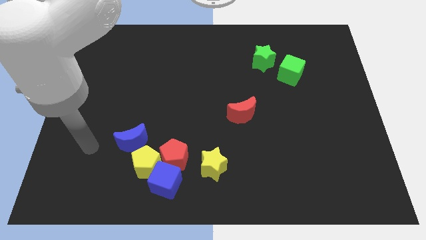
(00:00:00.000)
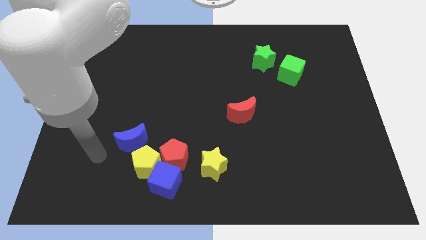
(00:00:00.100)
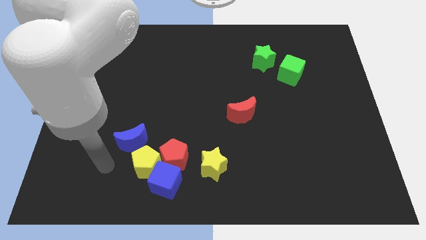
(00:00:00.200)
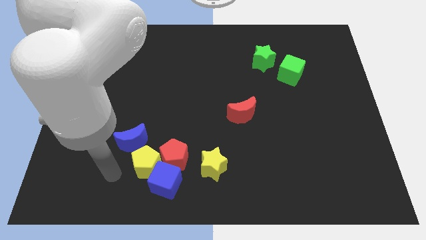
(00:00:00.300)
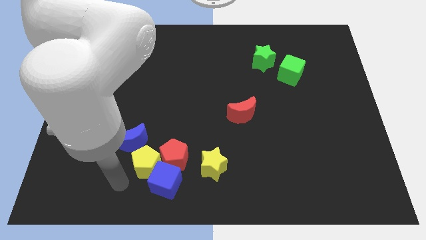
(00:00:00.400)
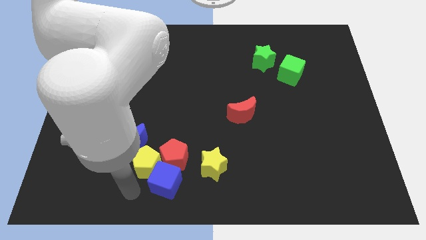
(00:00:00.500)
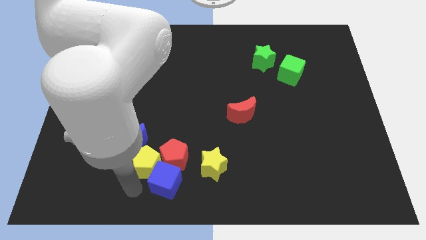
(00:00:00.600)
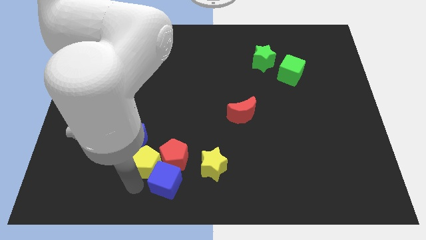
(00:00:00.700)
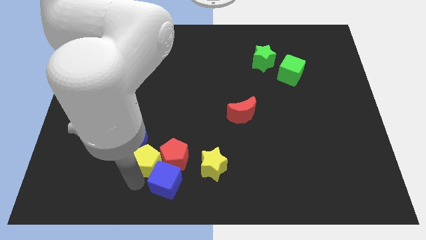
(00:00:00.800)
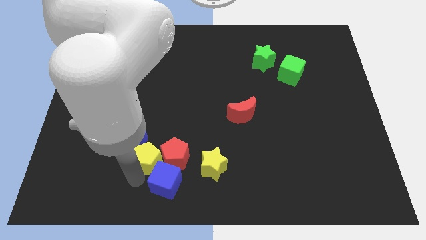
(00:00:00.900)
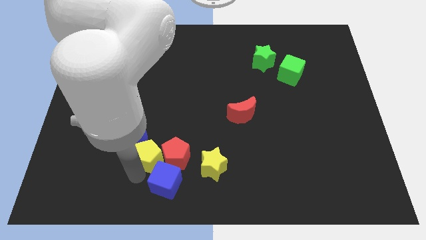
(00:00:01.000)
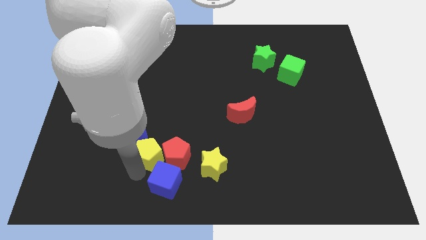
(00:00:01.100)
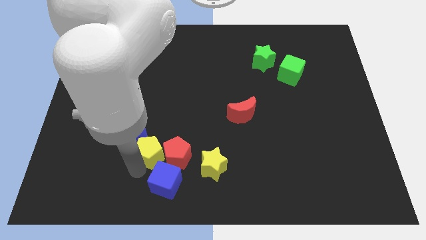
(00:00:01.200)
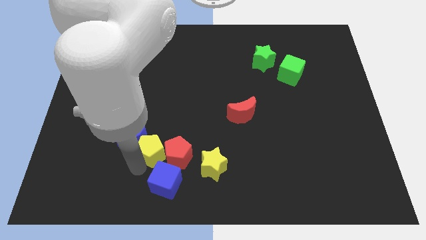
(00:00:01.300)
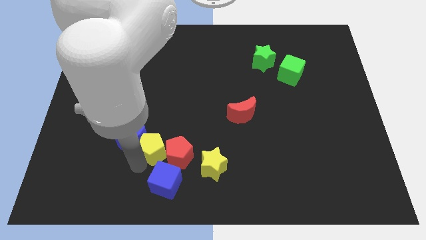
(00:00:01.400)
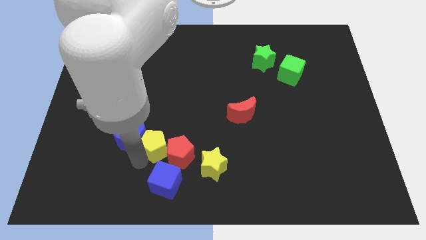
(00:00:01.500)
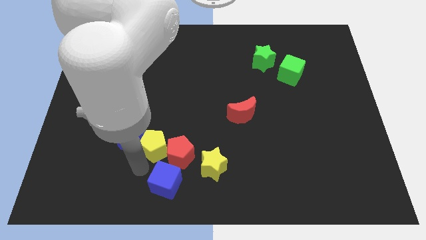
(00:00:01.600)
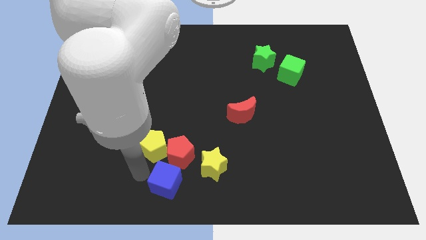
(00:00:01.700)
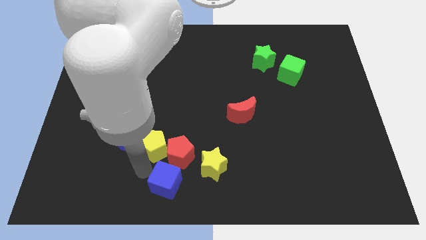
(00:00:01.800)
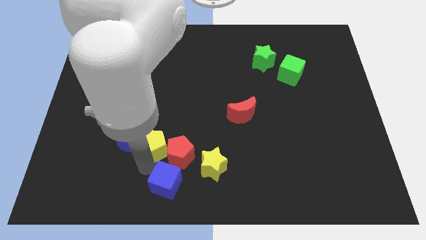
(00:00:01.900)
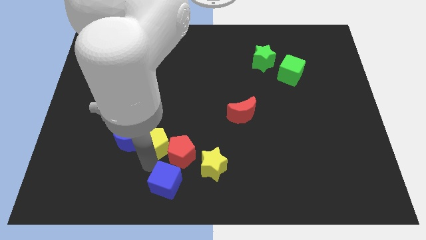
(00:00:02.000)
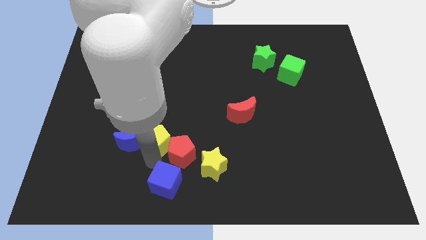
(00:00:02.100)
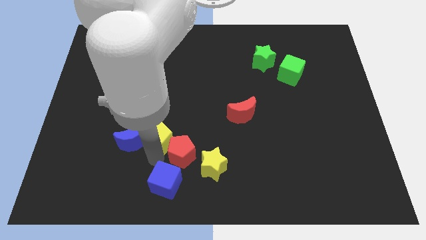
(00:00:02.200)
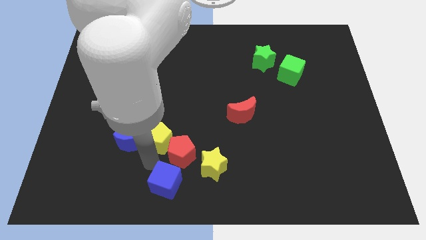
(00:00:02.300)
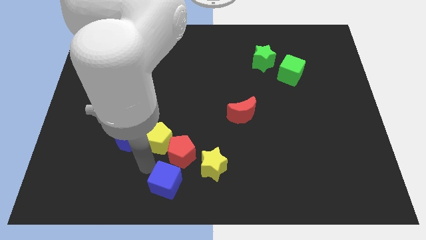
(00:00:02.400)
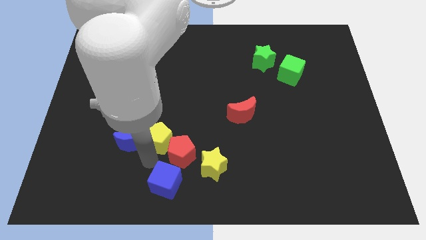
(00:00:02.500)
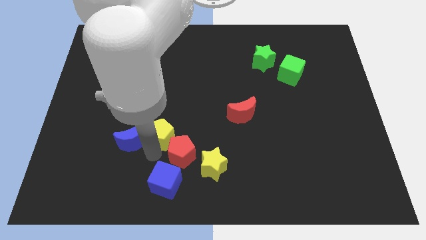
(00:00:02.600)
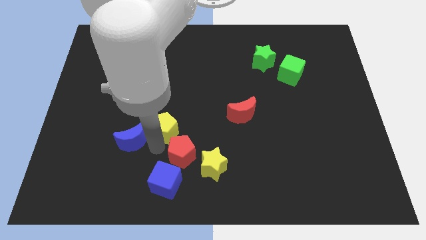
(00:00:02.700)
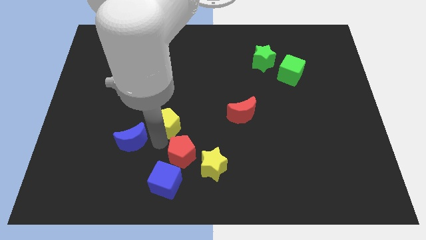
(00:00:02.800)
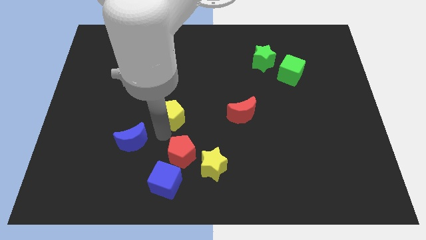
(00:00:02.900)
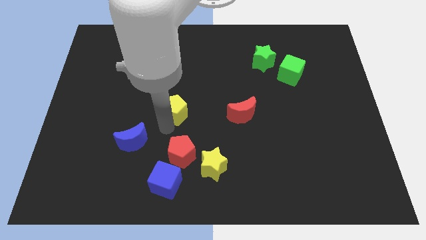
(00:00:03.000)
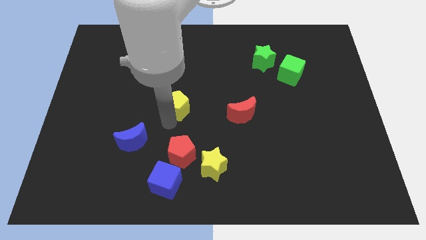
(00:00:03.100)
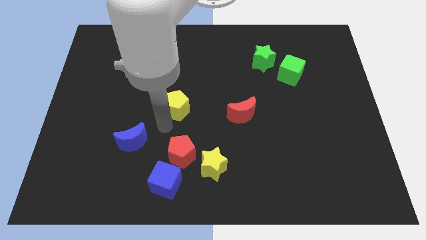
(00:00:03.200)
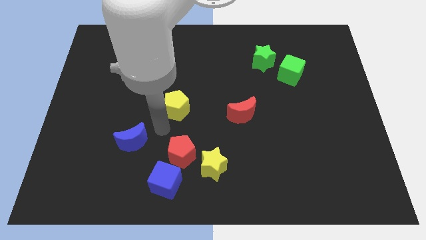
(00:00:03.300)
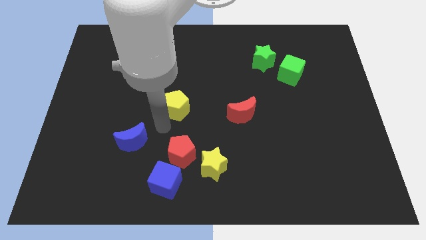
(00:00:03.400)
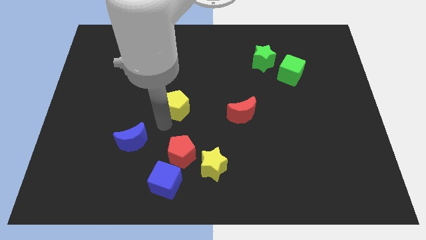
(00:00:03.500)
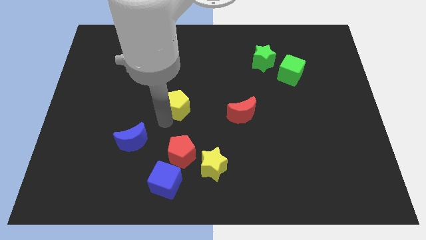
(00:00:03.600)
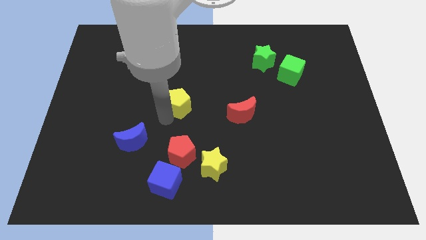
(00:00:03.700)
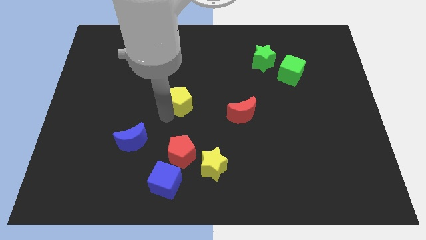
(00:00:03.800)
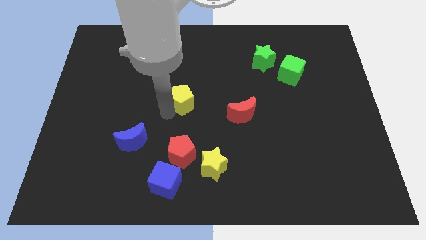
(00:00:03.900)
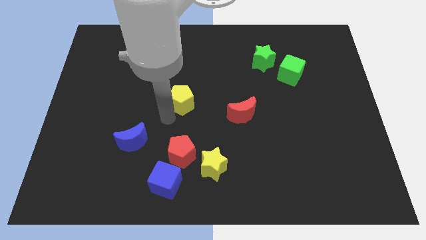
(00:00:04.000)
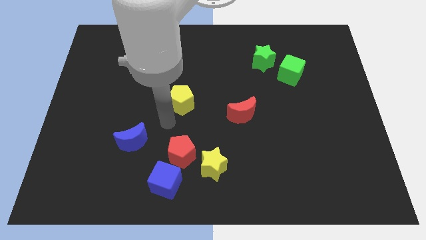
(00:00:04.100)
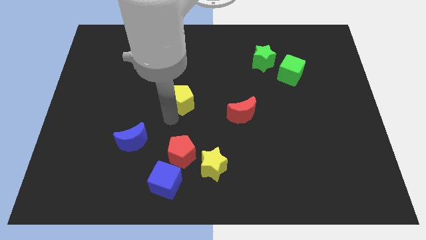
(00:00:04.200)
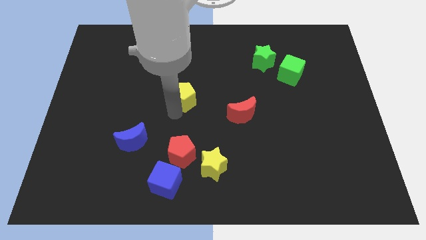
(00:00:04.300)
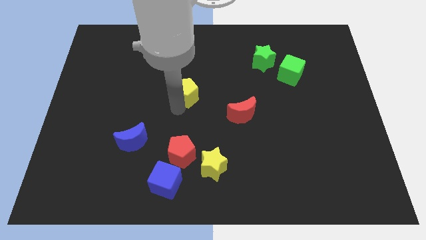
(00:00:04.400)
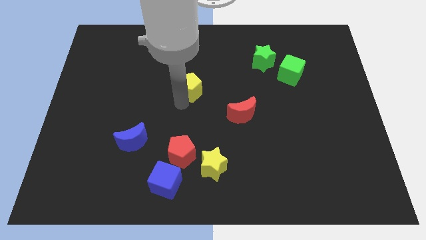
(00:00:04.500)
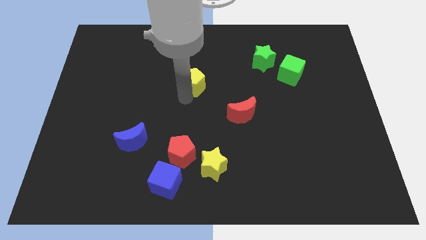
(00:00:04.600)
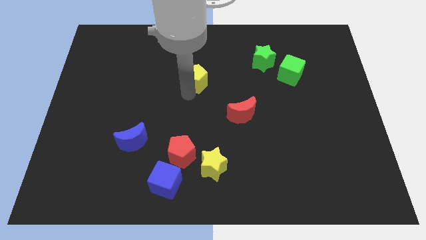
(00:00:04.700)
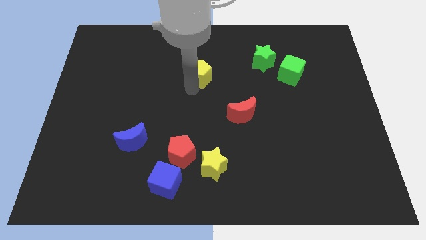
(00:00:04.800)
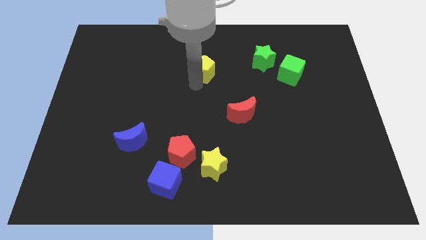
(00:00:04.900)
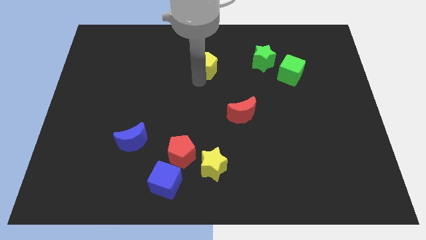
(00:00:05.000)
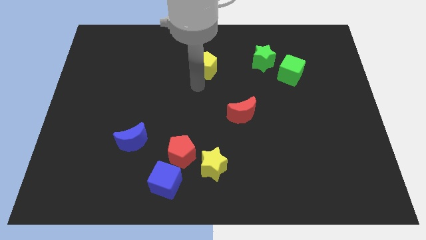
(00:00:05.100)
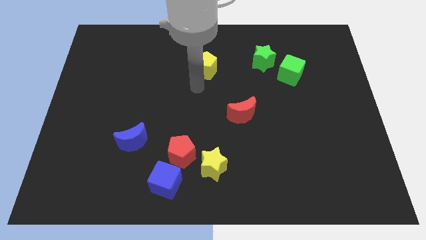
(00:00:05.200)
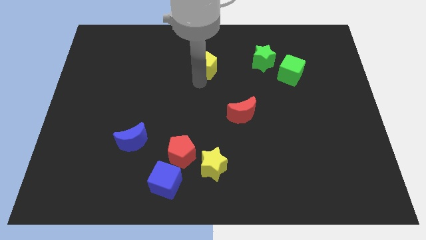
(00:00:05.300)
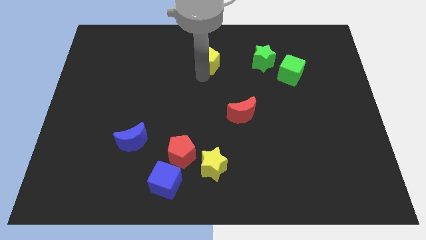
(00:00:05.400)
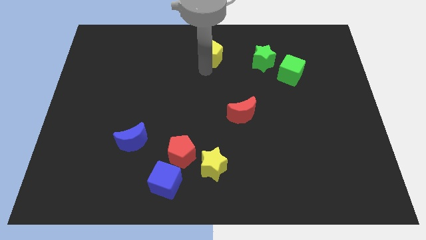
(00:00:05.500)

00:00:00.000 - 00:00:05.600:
move the yellow pentagon to the top side

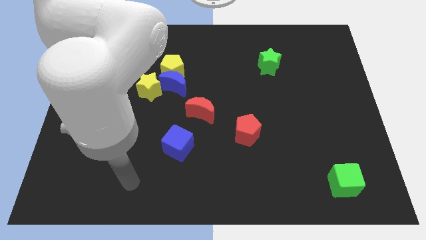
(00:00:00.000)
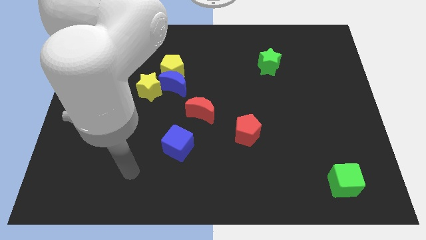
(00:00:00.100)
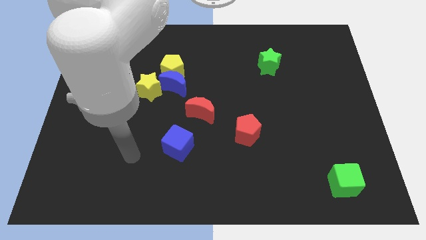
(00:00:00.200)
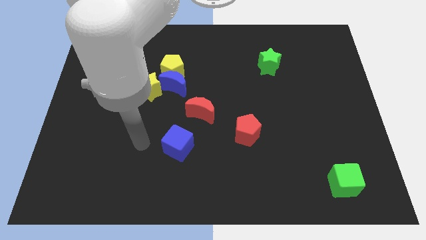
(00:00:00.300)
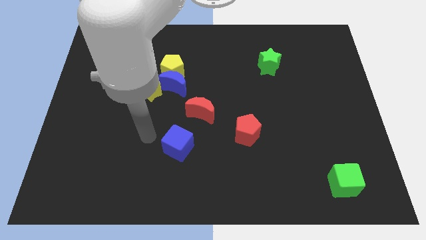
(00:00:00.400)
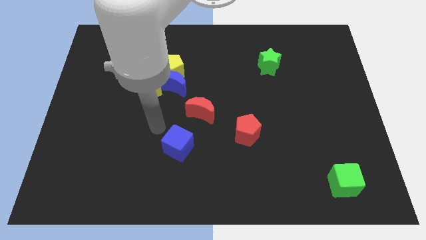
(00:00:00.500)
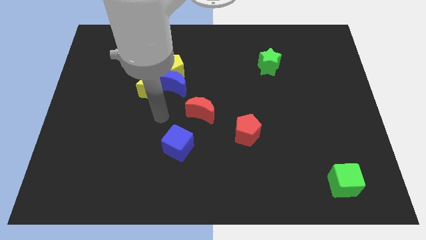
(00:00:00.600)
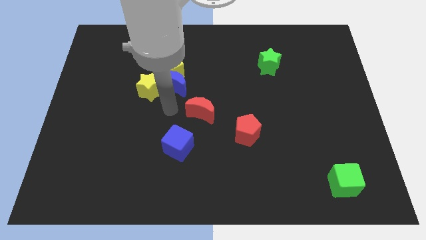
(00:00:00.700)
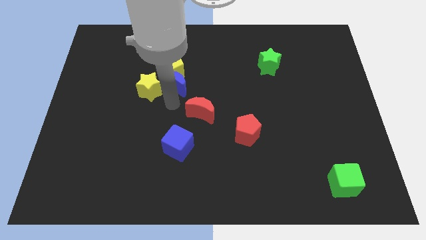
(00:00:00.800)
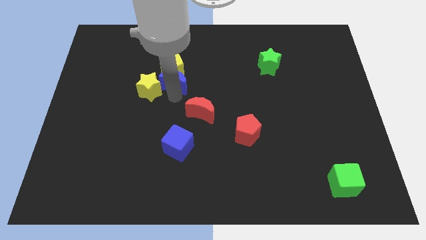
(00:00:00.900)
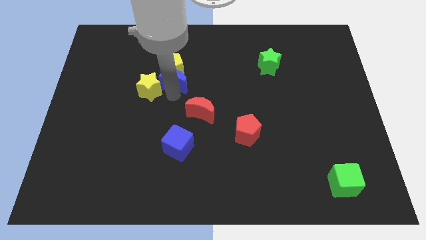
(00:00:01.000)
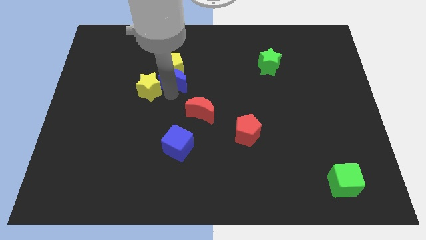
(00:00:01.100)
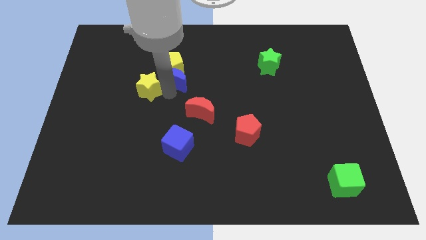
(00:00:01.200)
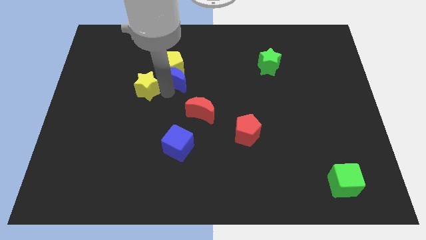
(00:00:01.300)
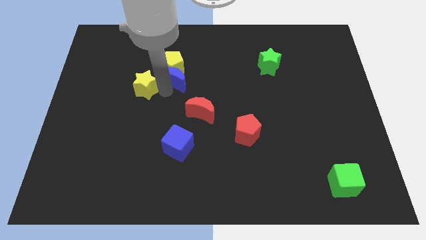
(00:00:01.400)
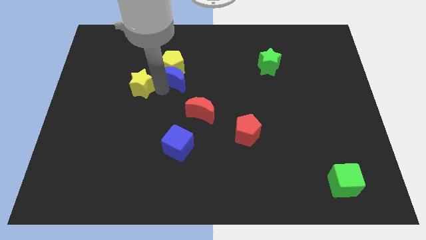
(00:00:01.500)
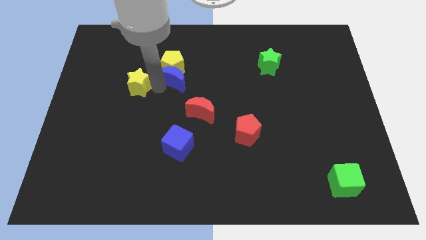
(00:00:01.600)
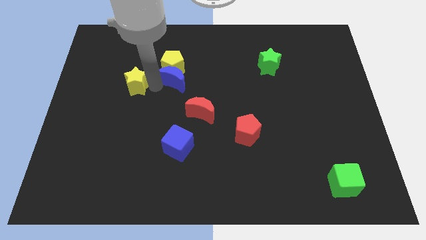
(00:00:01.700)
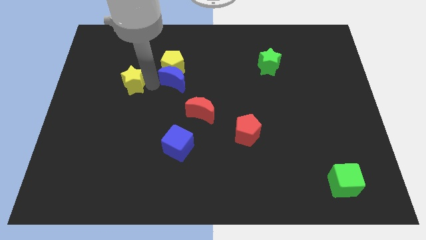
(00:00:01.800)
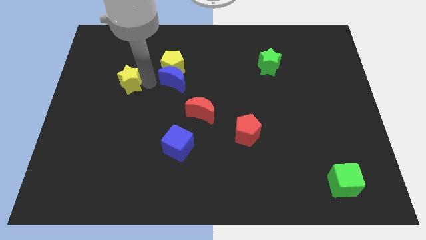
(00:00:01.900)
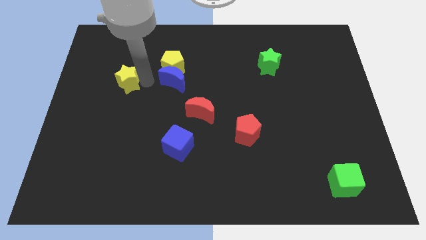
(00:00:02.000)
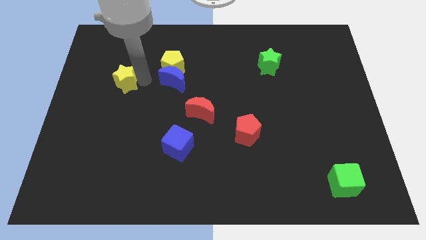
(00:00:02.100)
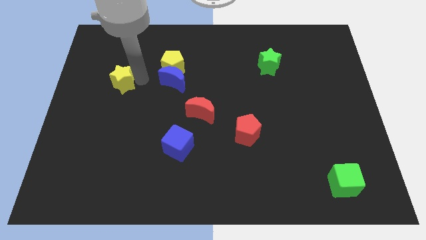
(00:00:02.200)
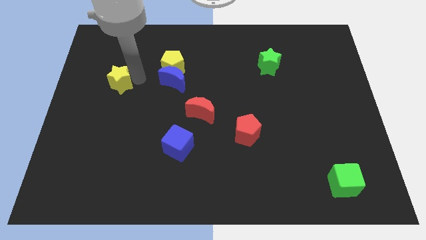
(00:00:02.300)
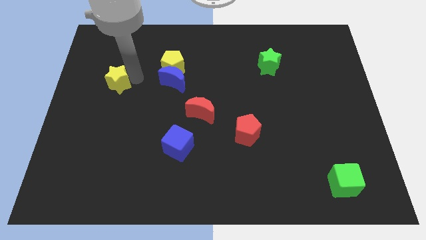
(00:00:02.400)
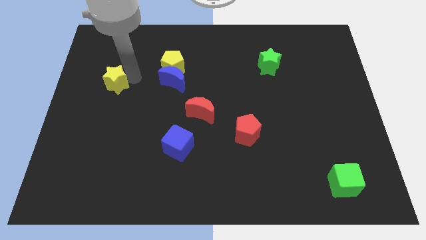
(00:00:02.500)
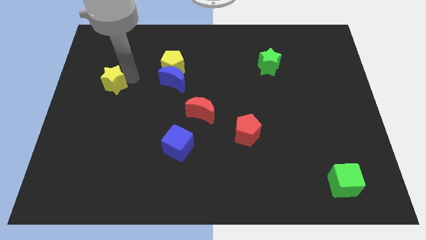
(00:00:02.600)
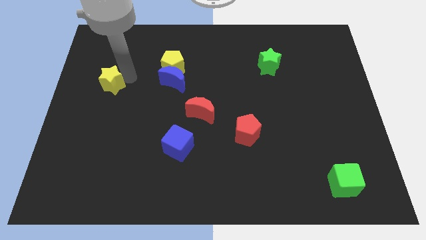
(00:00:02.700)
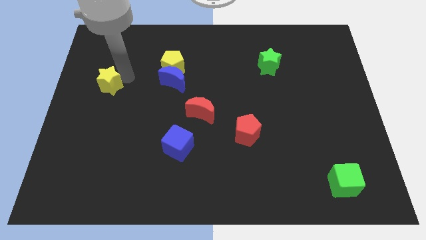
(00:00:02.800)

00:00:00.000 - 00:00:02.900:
move the yellow star to the center left
